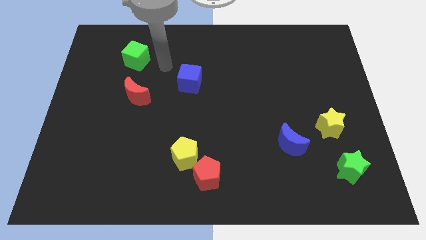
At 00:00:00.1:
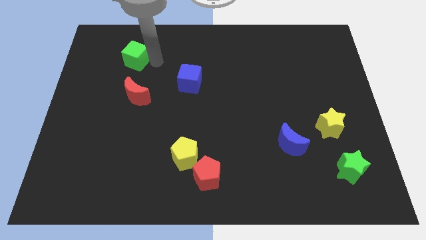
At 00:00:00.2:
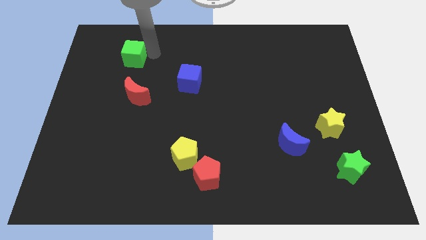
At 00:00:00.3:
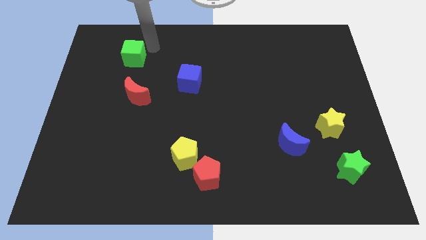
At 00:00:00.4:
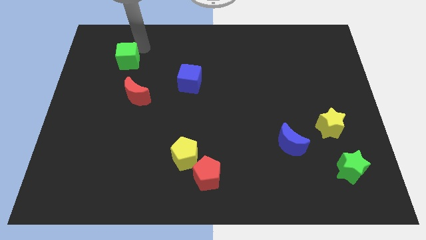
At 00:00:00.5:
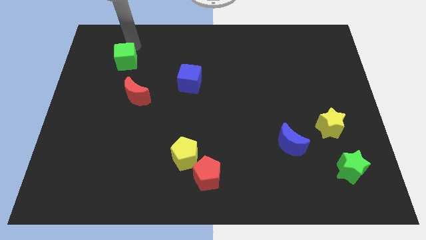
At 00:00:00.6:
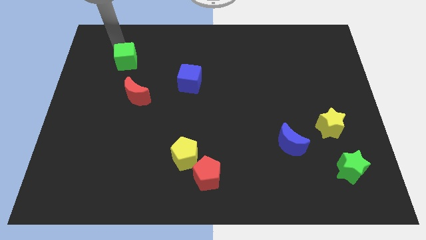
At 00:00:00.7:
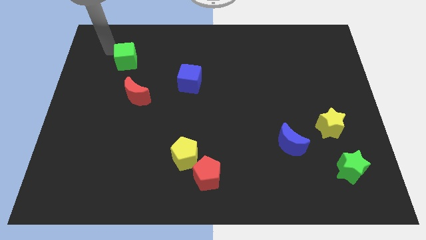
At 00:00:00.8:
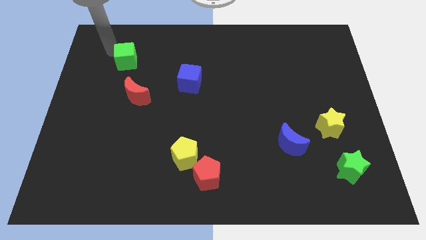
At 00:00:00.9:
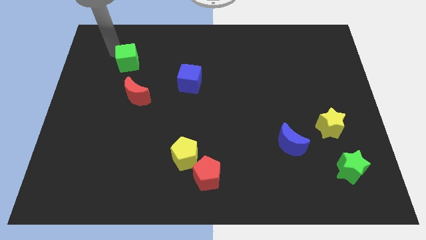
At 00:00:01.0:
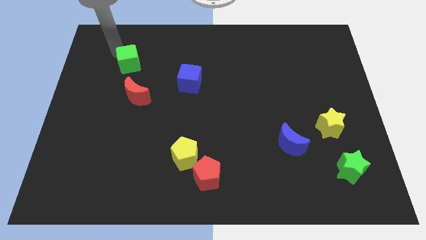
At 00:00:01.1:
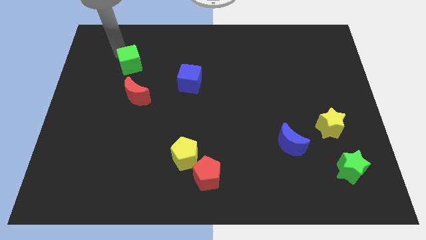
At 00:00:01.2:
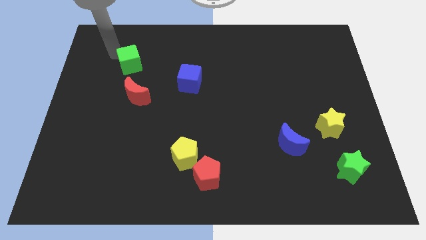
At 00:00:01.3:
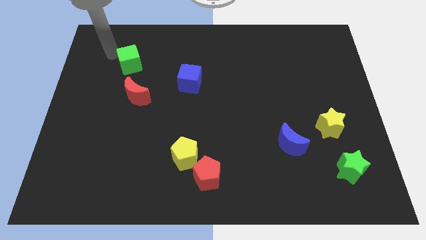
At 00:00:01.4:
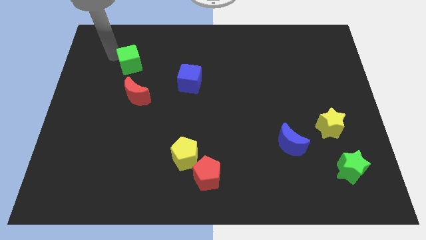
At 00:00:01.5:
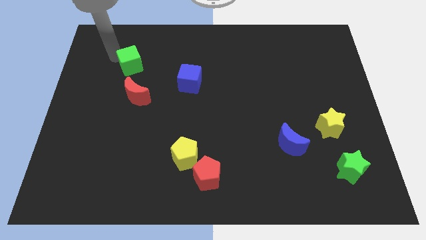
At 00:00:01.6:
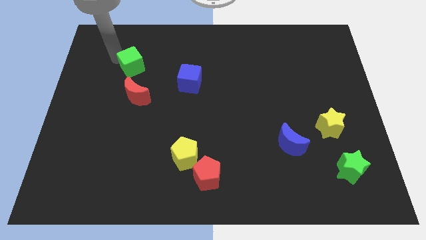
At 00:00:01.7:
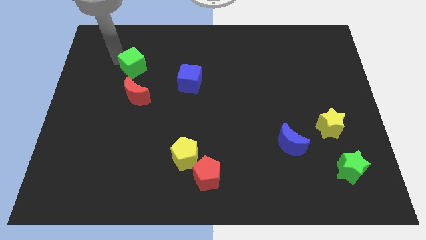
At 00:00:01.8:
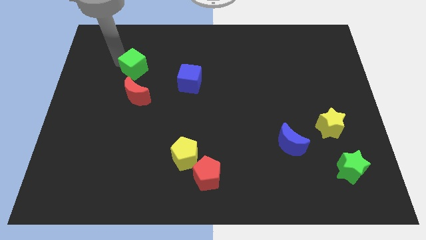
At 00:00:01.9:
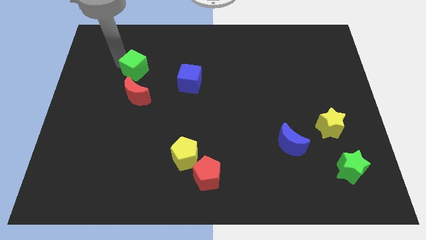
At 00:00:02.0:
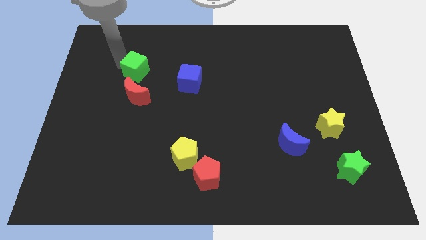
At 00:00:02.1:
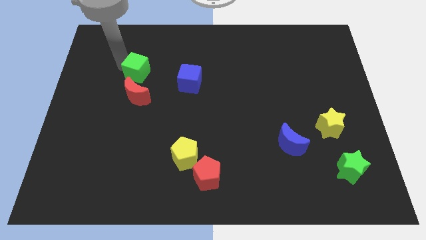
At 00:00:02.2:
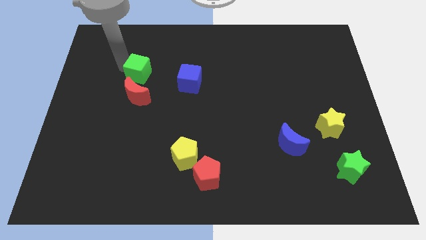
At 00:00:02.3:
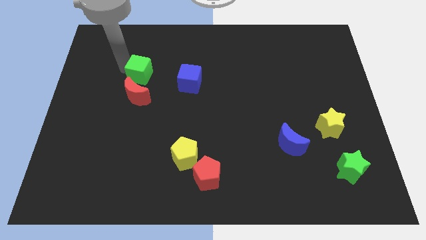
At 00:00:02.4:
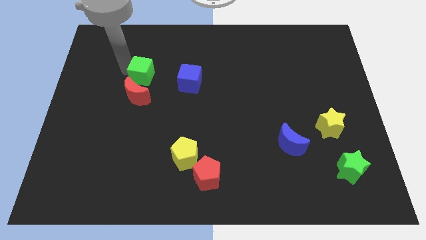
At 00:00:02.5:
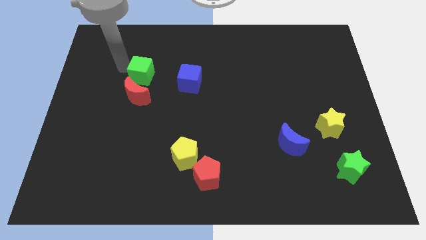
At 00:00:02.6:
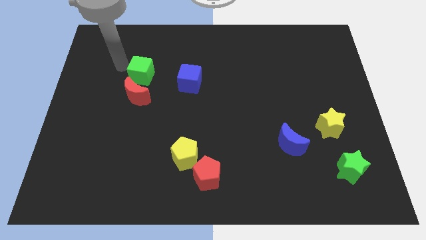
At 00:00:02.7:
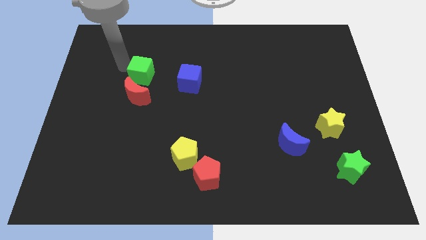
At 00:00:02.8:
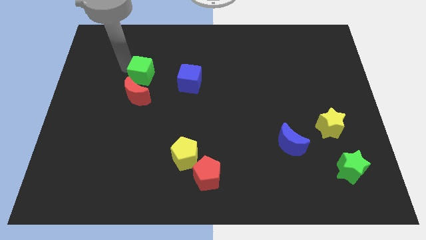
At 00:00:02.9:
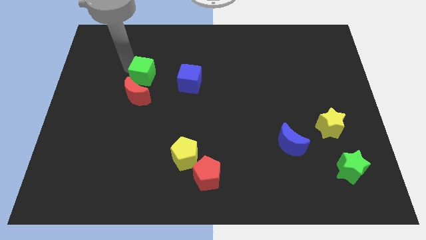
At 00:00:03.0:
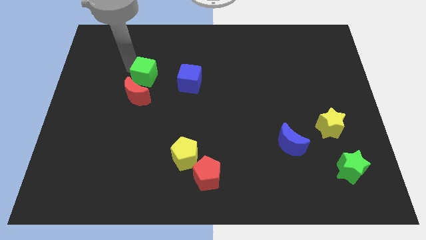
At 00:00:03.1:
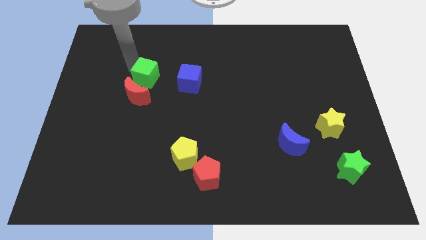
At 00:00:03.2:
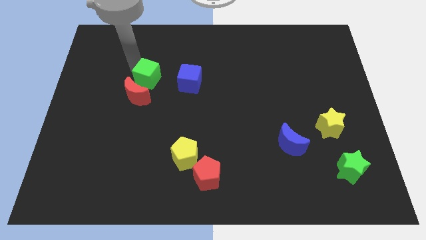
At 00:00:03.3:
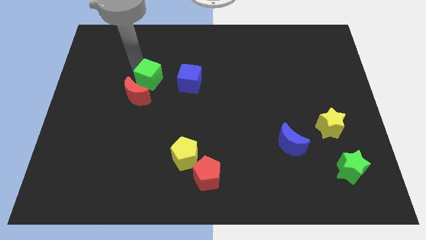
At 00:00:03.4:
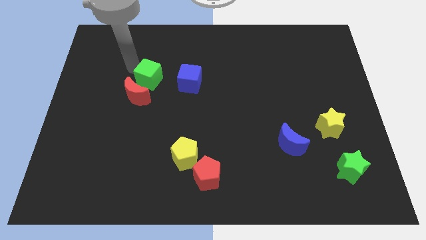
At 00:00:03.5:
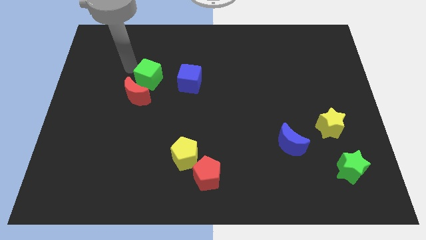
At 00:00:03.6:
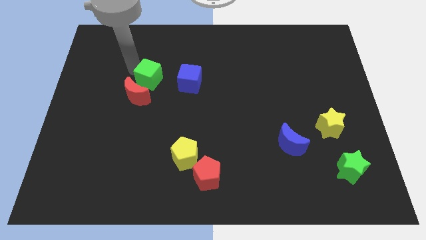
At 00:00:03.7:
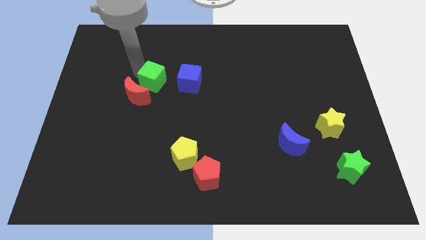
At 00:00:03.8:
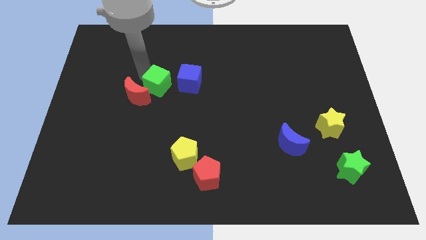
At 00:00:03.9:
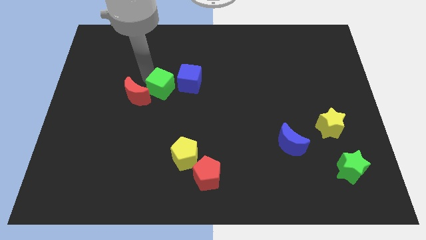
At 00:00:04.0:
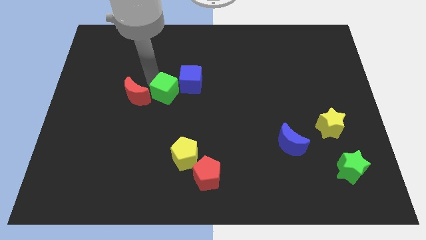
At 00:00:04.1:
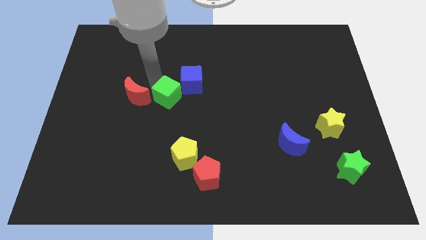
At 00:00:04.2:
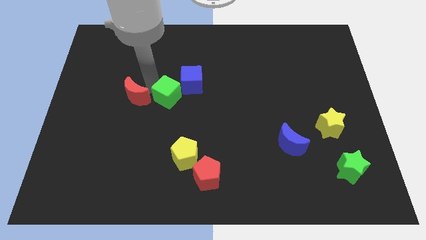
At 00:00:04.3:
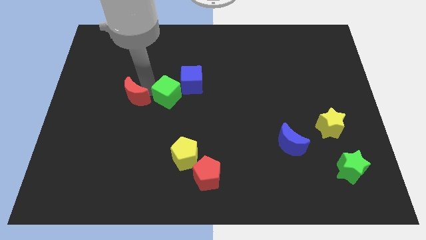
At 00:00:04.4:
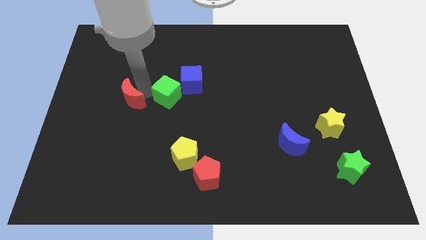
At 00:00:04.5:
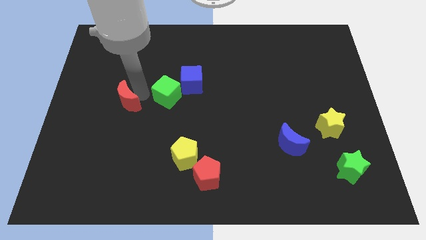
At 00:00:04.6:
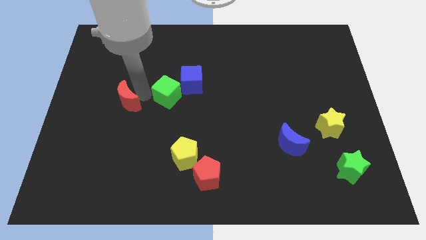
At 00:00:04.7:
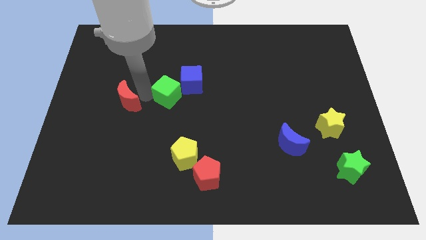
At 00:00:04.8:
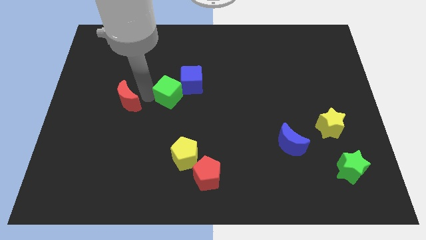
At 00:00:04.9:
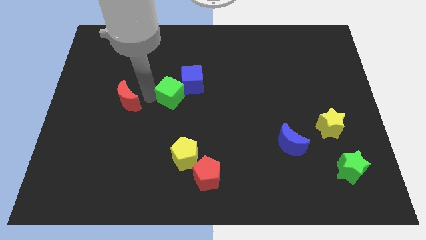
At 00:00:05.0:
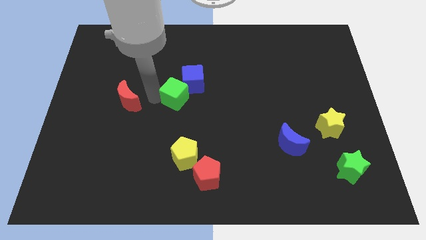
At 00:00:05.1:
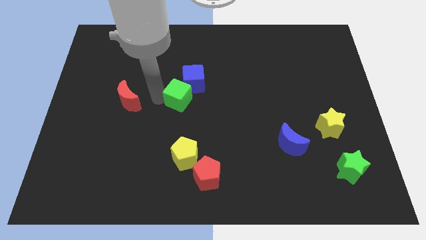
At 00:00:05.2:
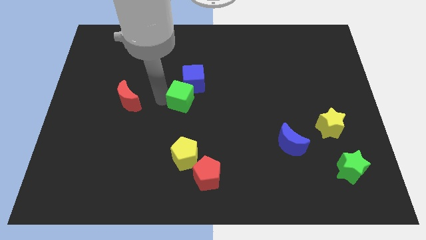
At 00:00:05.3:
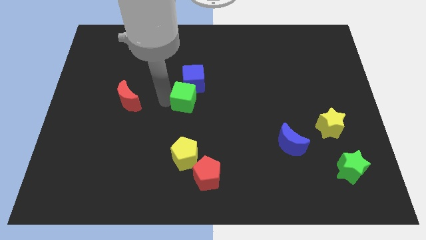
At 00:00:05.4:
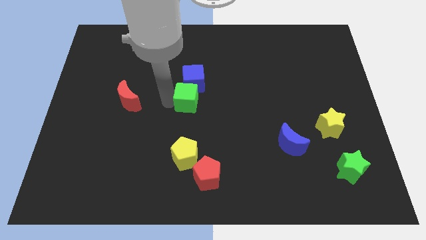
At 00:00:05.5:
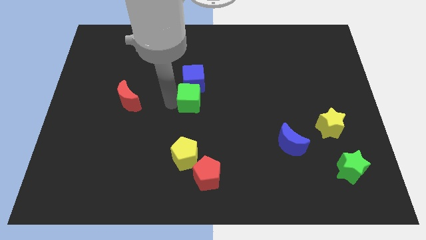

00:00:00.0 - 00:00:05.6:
push the green cube to the bottom right side of the blue cube

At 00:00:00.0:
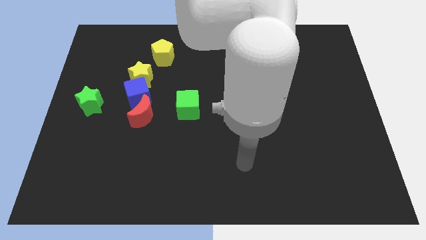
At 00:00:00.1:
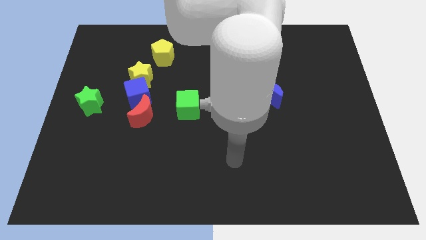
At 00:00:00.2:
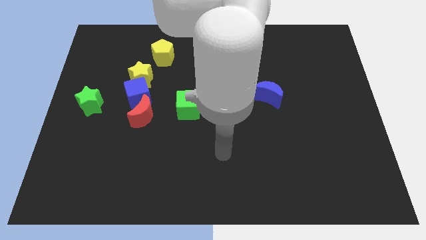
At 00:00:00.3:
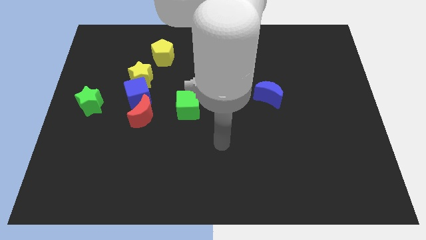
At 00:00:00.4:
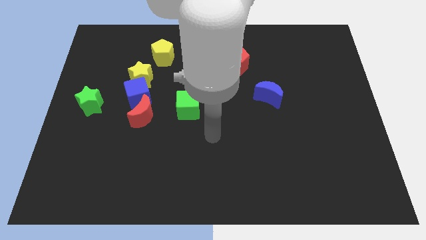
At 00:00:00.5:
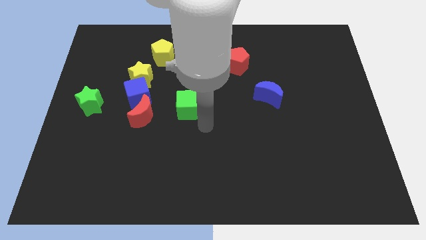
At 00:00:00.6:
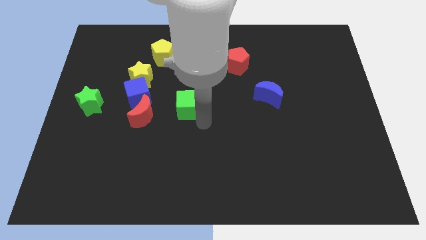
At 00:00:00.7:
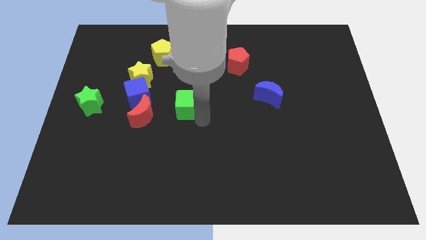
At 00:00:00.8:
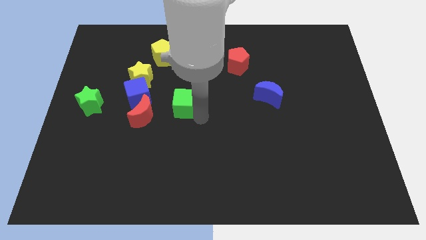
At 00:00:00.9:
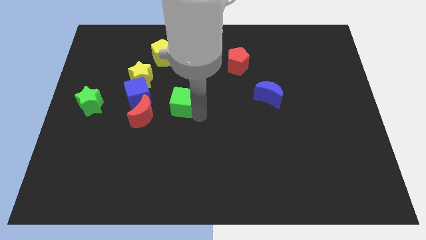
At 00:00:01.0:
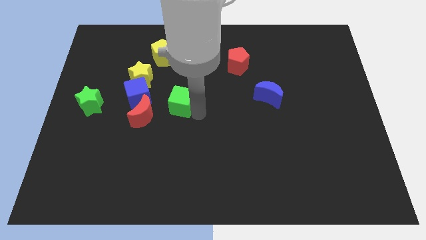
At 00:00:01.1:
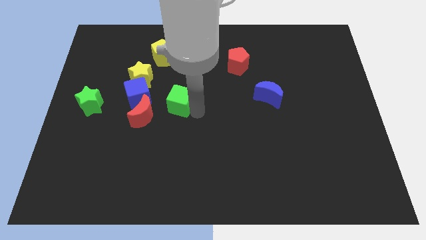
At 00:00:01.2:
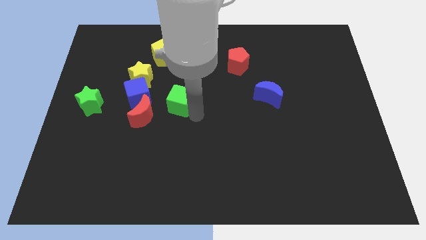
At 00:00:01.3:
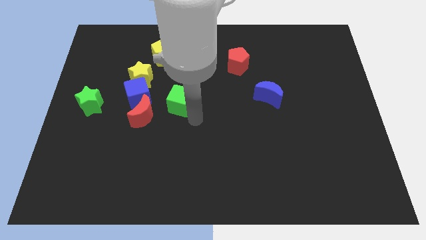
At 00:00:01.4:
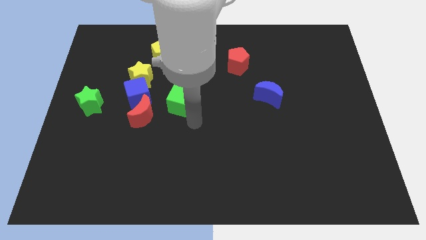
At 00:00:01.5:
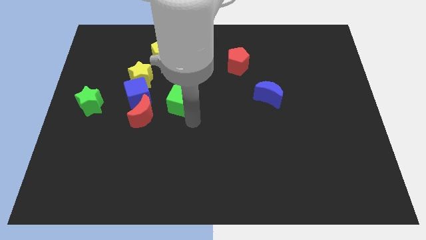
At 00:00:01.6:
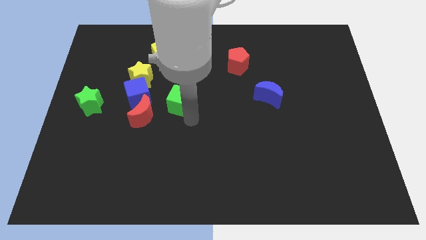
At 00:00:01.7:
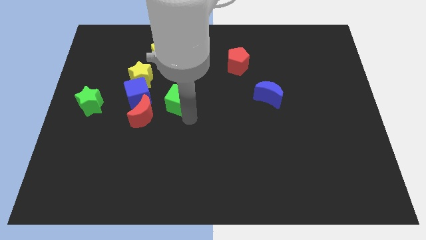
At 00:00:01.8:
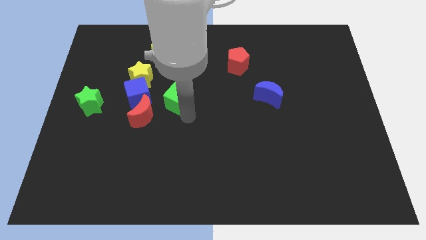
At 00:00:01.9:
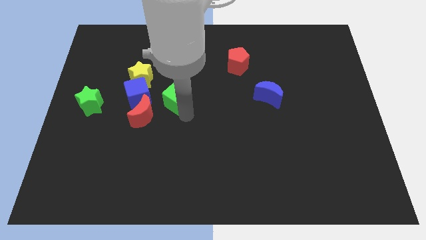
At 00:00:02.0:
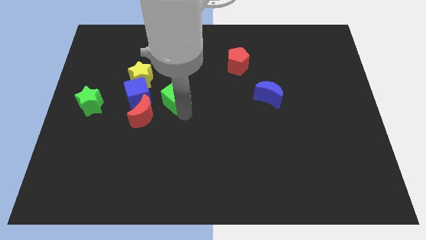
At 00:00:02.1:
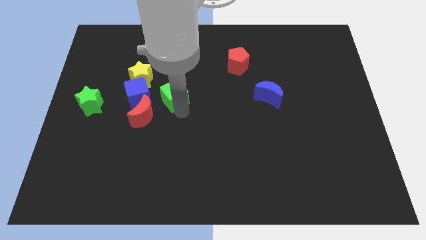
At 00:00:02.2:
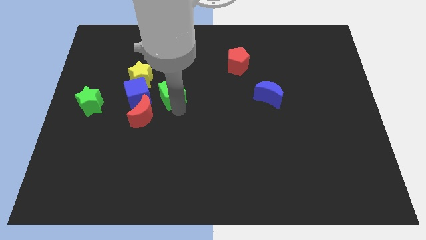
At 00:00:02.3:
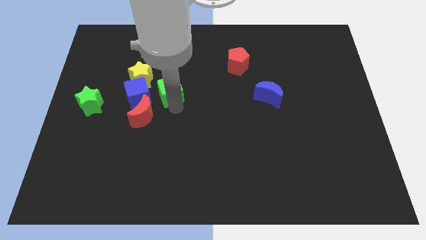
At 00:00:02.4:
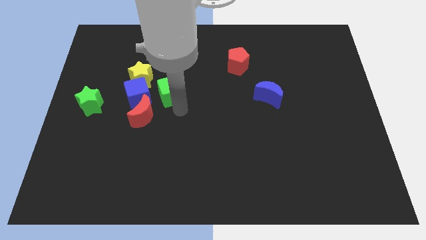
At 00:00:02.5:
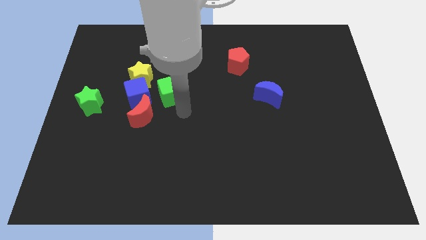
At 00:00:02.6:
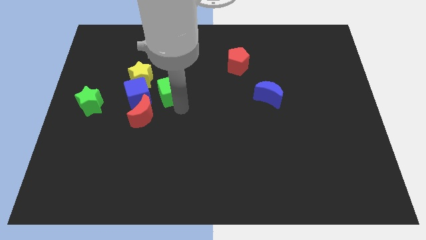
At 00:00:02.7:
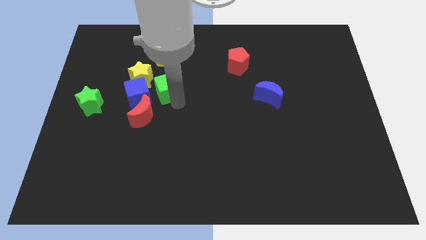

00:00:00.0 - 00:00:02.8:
push the green cube above the red moon
